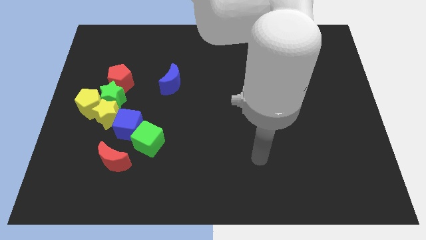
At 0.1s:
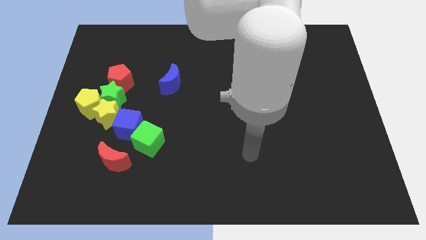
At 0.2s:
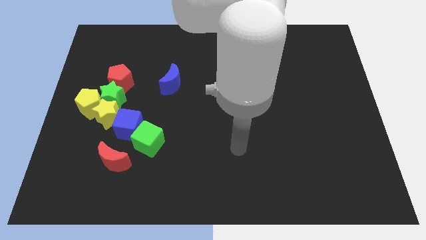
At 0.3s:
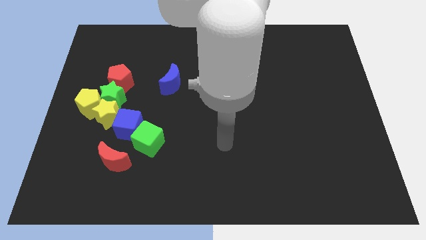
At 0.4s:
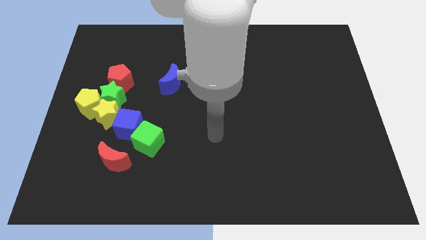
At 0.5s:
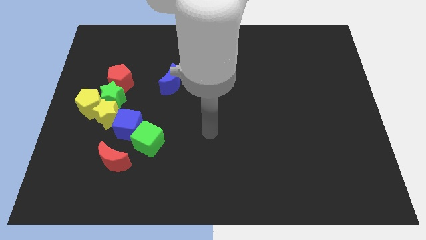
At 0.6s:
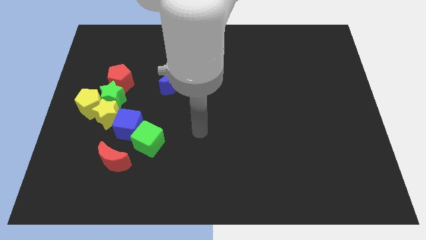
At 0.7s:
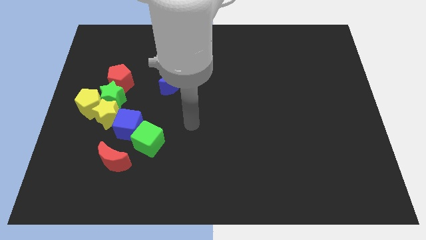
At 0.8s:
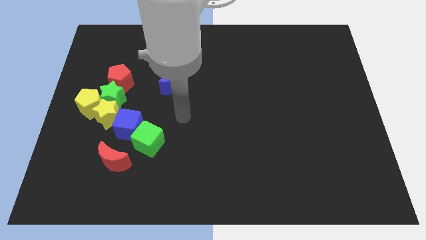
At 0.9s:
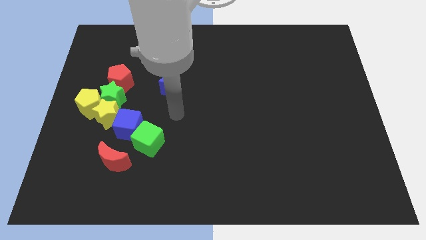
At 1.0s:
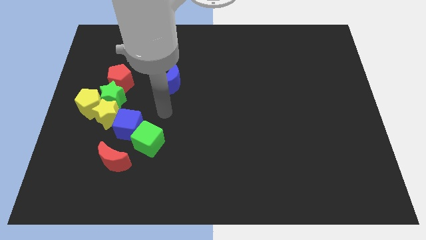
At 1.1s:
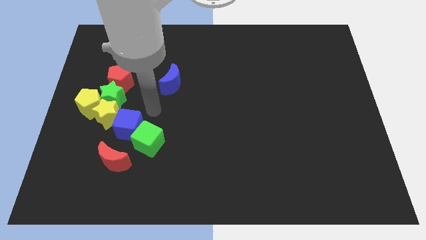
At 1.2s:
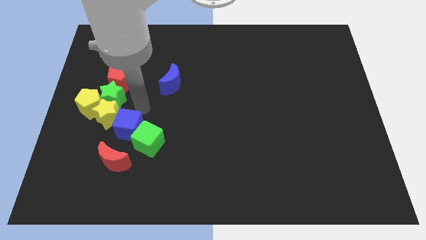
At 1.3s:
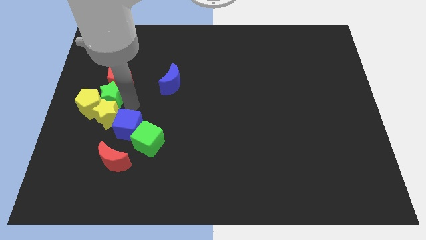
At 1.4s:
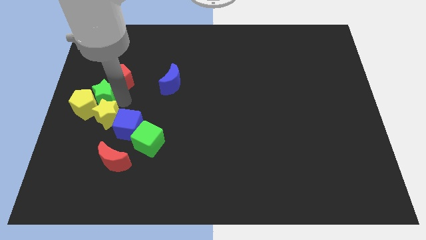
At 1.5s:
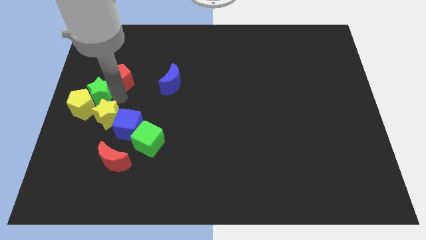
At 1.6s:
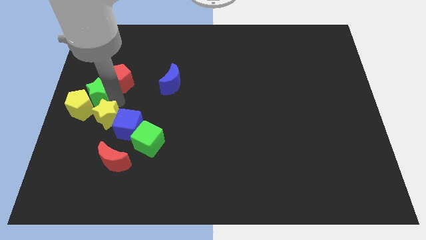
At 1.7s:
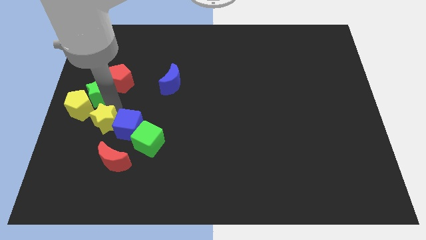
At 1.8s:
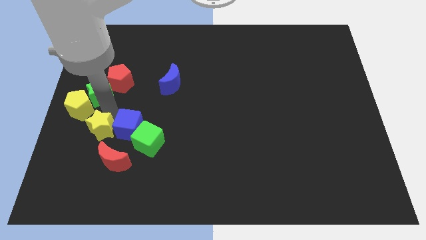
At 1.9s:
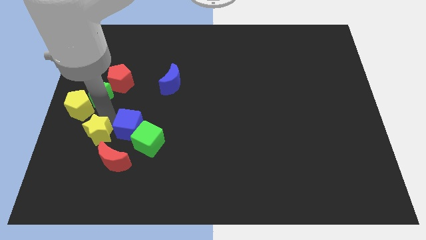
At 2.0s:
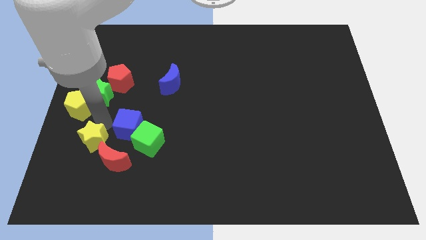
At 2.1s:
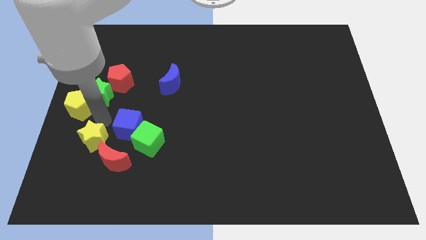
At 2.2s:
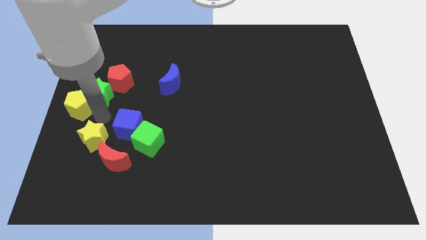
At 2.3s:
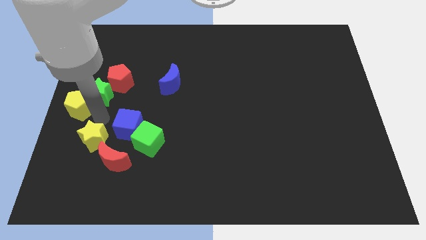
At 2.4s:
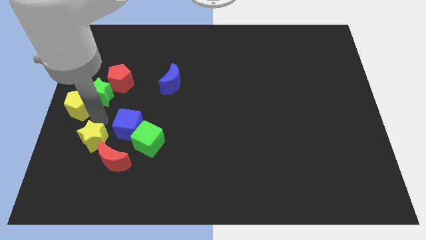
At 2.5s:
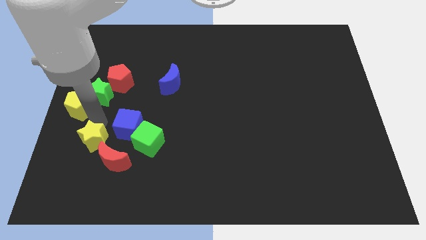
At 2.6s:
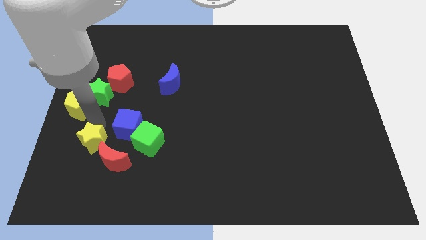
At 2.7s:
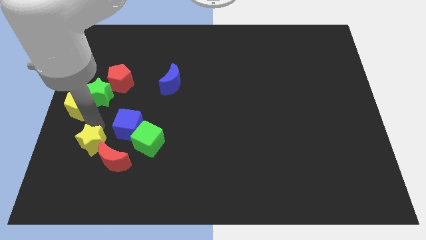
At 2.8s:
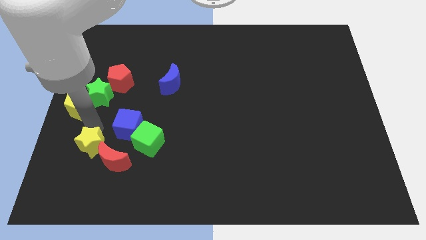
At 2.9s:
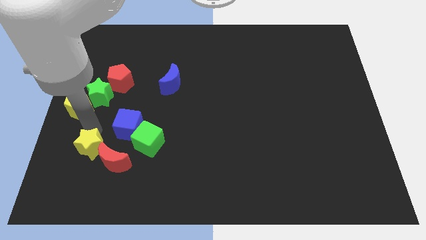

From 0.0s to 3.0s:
separate the yellow star from the clump

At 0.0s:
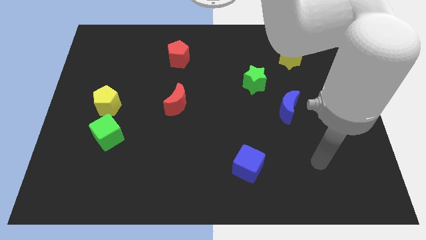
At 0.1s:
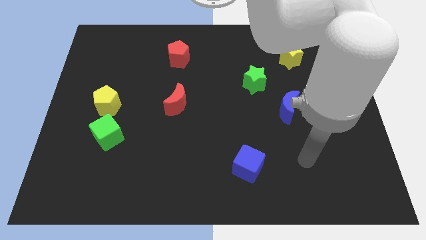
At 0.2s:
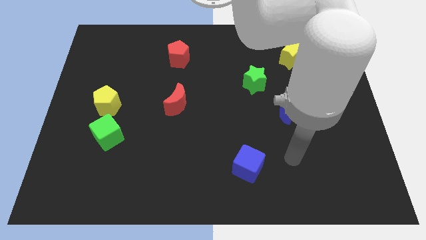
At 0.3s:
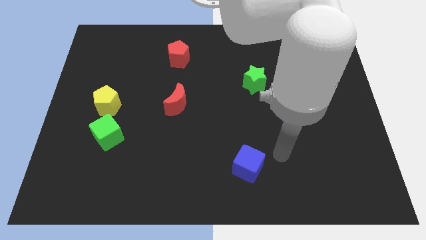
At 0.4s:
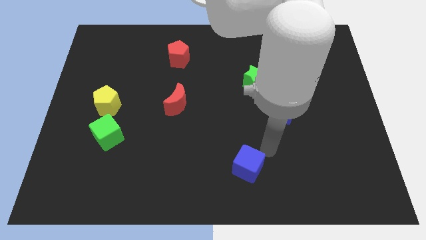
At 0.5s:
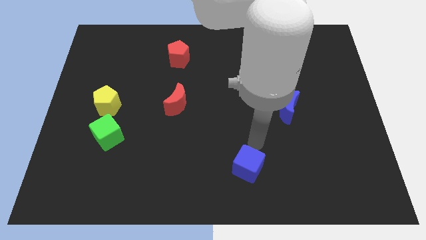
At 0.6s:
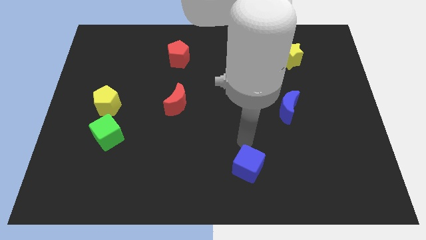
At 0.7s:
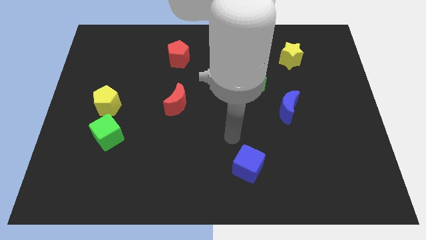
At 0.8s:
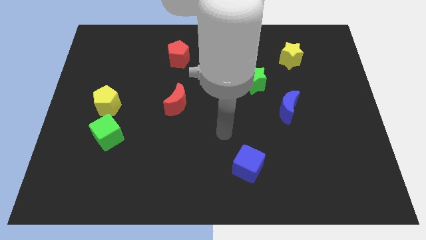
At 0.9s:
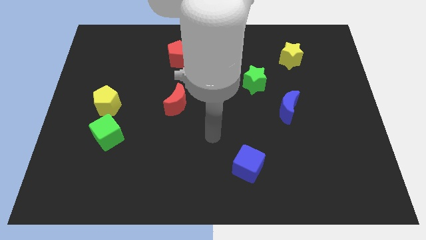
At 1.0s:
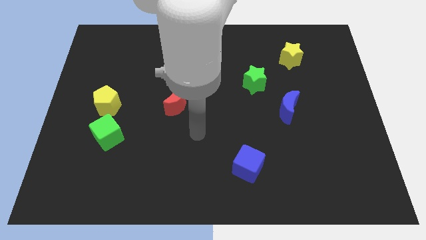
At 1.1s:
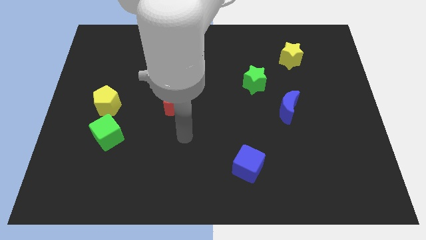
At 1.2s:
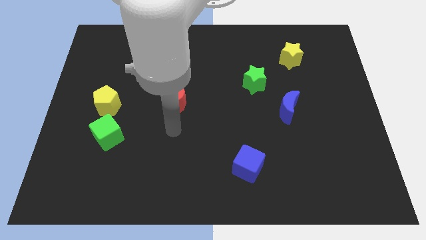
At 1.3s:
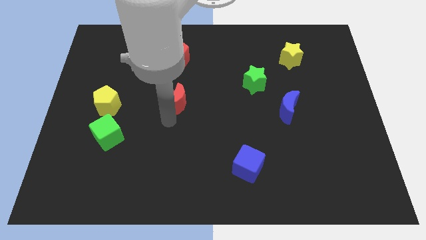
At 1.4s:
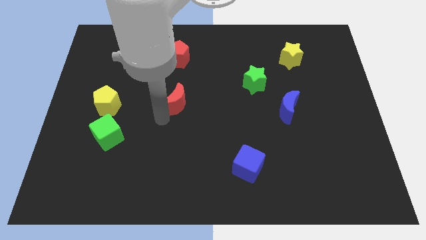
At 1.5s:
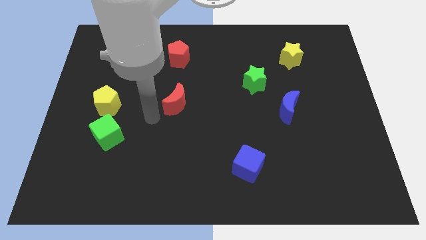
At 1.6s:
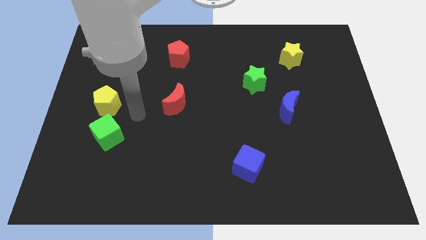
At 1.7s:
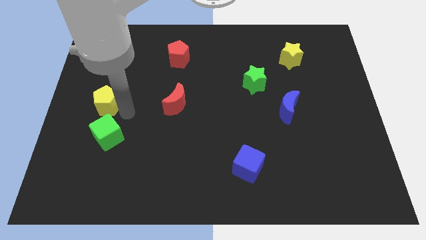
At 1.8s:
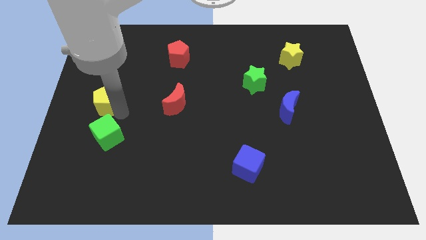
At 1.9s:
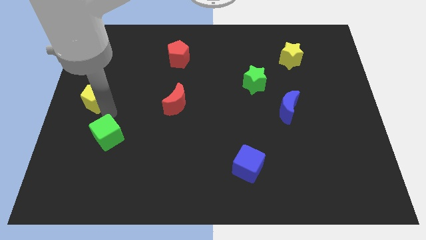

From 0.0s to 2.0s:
separate the green cube from the yellow pentagon

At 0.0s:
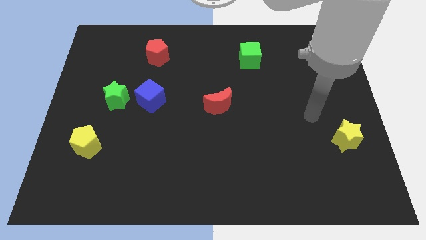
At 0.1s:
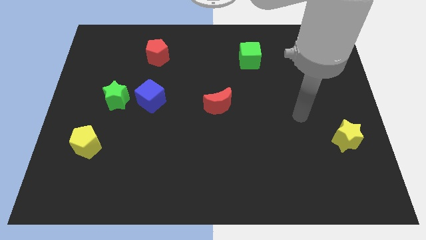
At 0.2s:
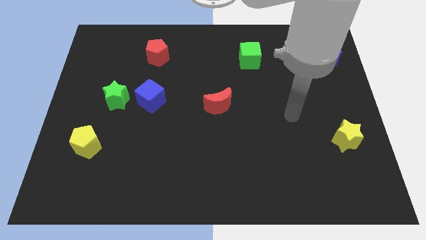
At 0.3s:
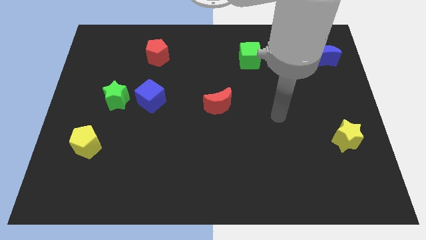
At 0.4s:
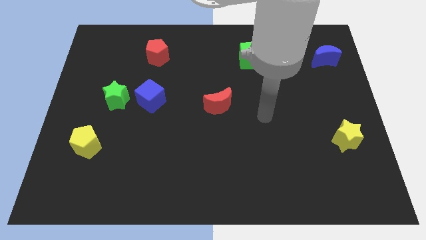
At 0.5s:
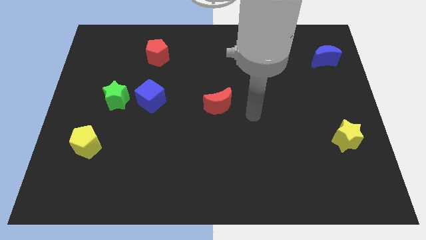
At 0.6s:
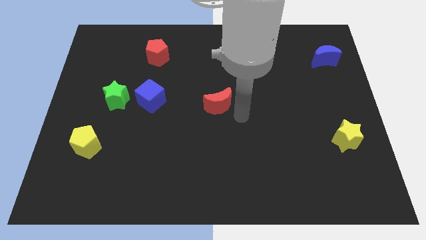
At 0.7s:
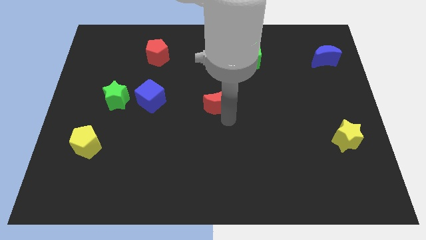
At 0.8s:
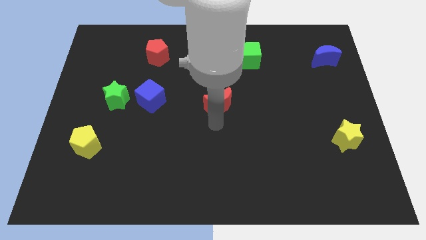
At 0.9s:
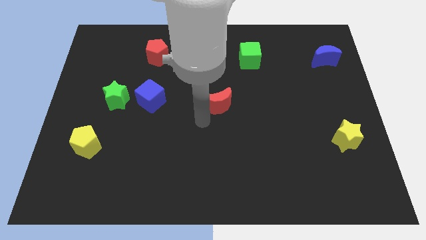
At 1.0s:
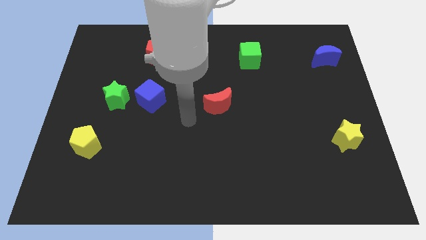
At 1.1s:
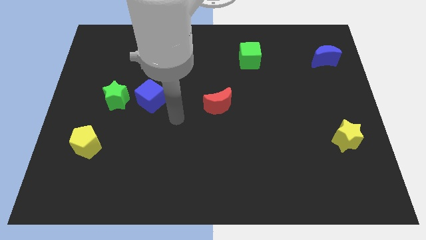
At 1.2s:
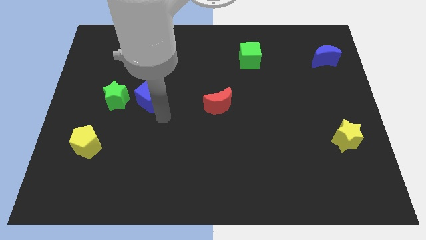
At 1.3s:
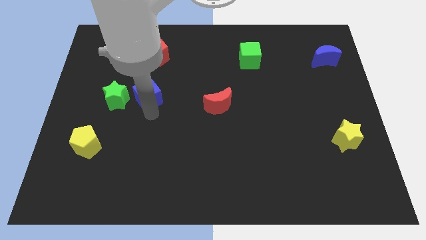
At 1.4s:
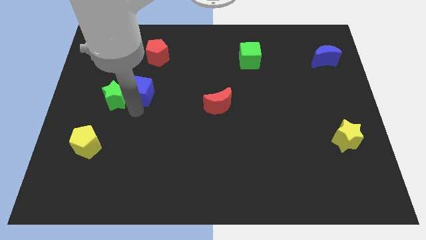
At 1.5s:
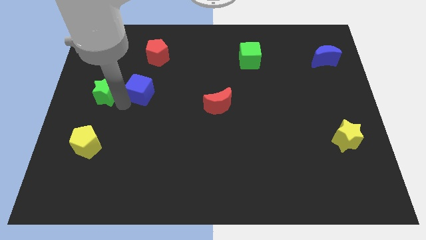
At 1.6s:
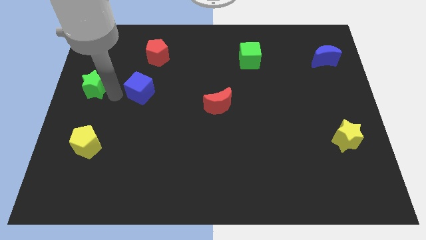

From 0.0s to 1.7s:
move the blue cube away from the green star

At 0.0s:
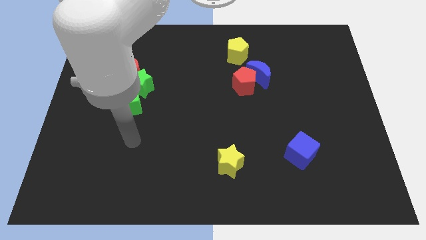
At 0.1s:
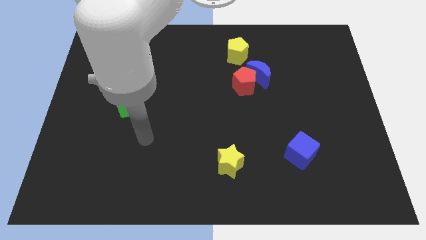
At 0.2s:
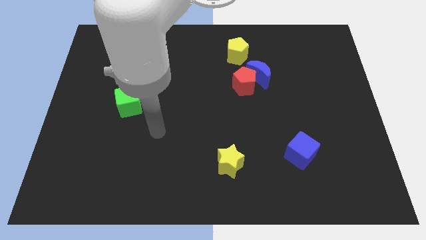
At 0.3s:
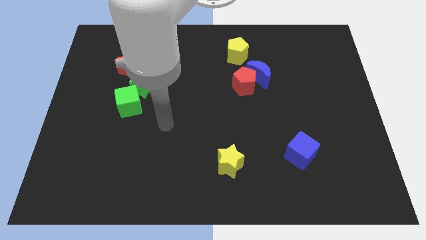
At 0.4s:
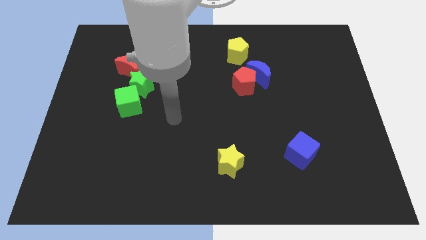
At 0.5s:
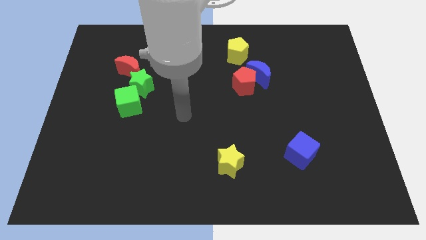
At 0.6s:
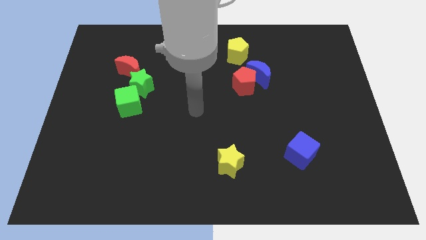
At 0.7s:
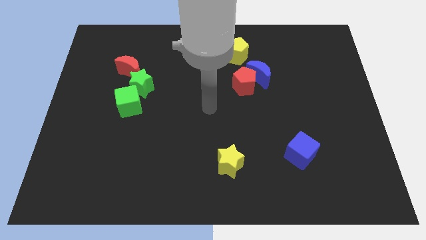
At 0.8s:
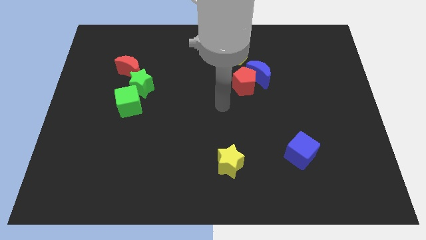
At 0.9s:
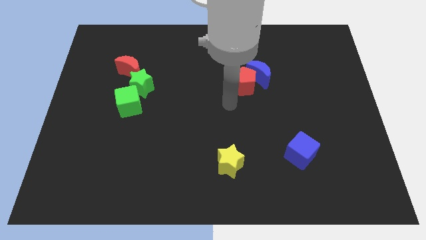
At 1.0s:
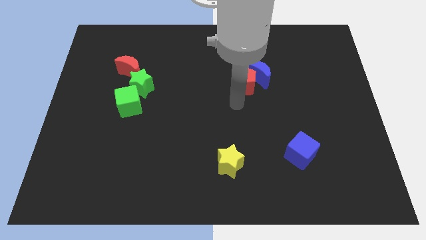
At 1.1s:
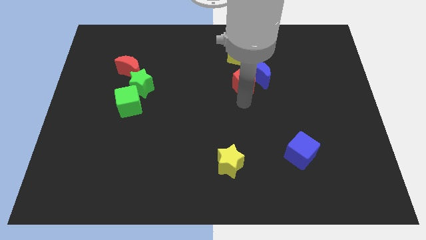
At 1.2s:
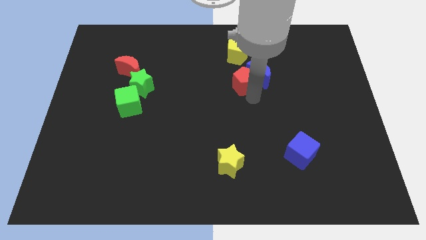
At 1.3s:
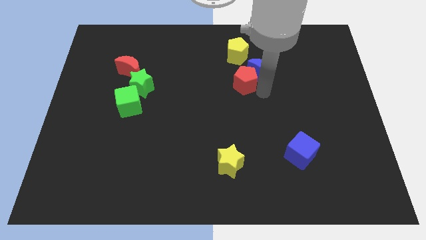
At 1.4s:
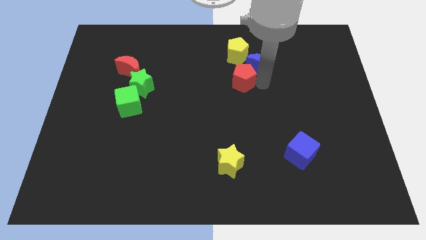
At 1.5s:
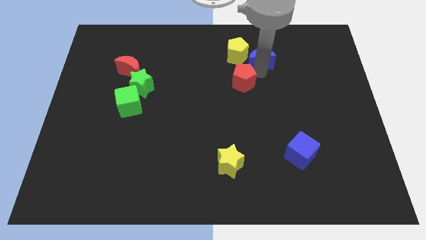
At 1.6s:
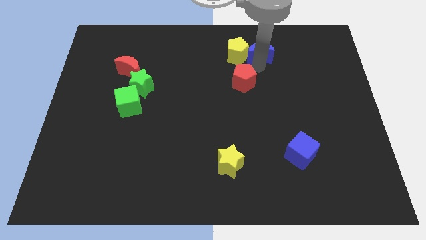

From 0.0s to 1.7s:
pull the red pentagon apart from the blue moon

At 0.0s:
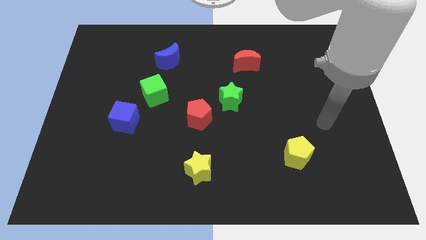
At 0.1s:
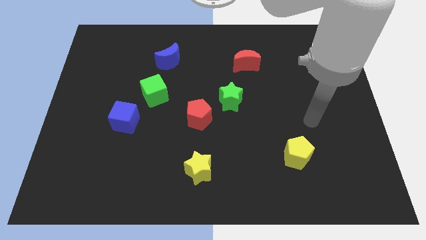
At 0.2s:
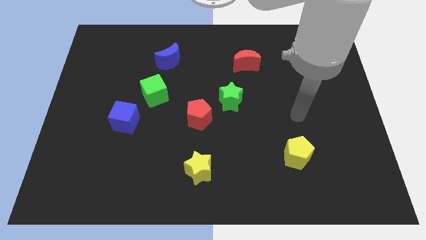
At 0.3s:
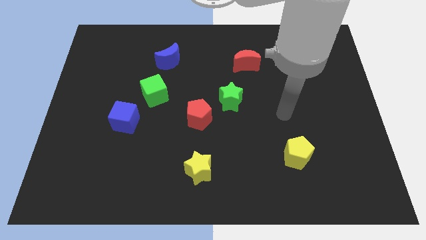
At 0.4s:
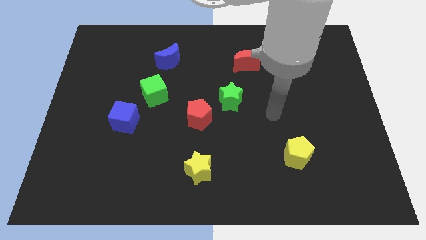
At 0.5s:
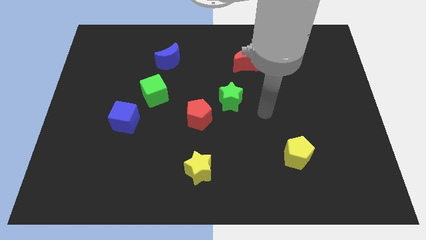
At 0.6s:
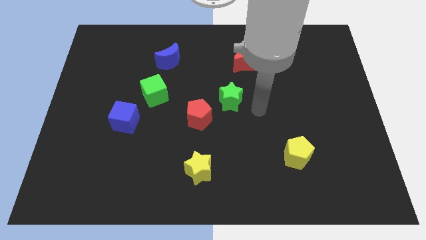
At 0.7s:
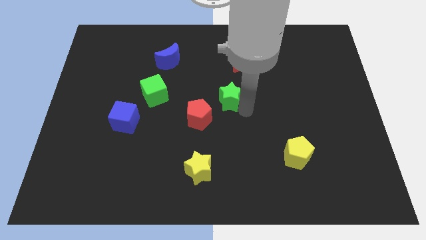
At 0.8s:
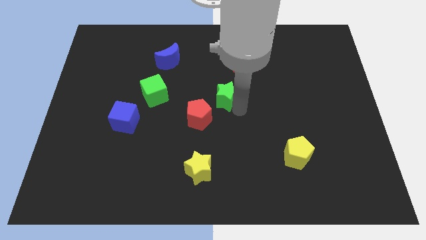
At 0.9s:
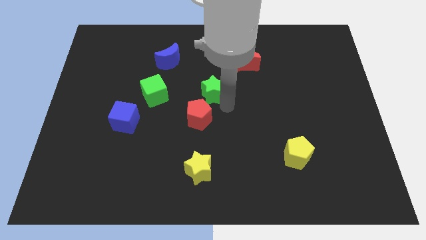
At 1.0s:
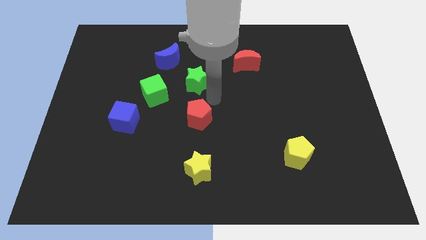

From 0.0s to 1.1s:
pull the red pentagon apart from the green star

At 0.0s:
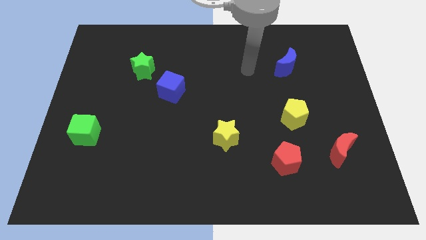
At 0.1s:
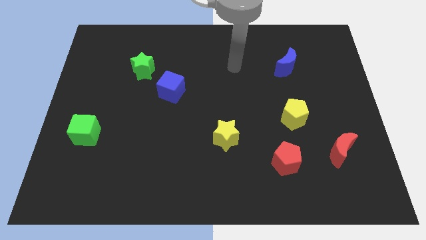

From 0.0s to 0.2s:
separate the blue cube from the green star
